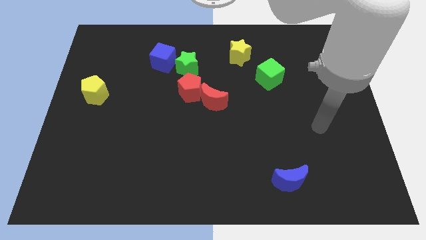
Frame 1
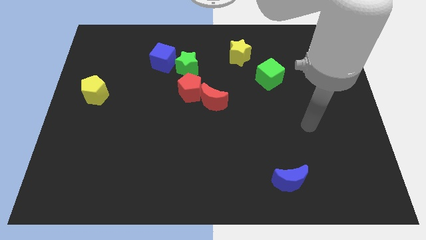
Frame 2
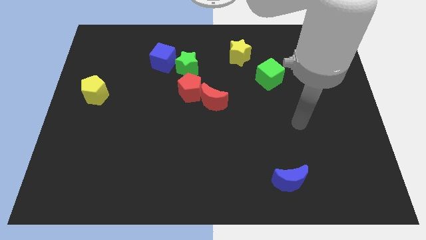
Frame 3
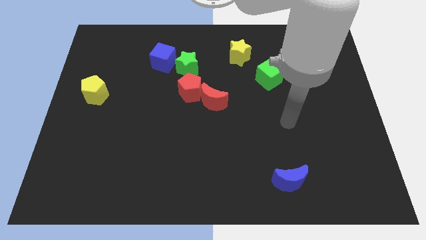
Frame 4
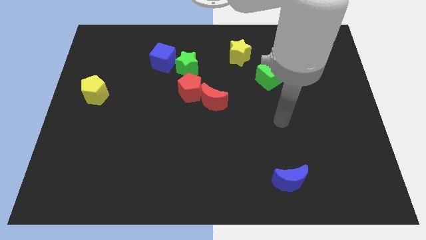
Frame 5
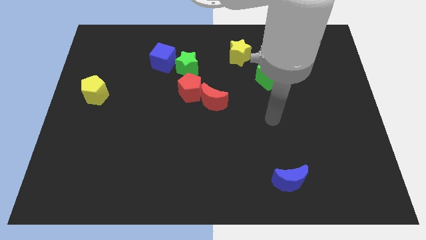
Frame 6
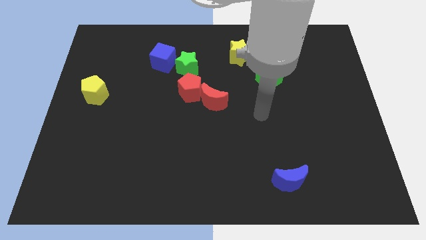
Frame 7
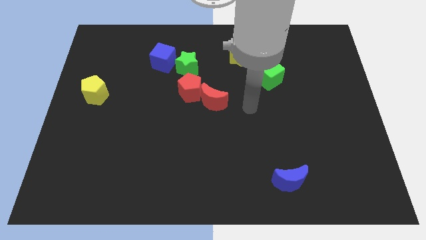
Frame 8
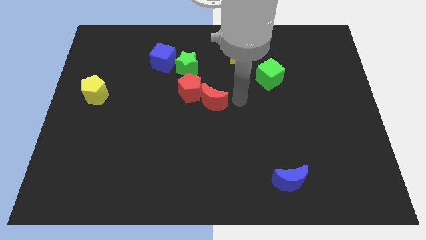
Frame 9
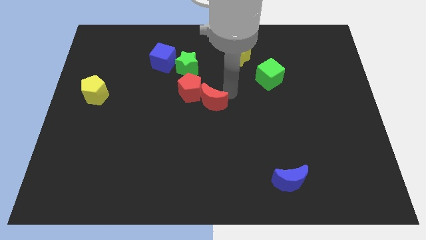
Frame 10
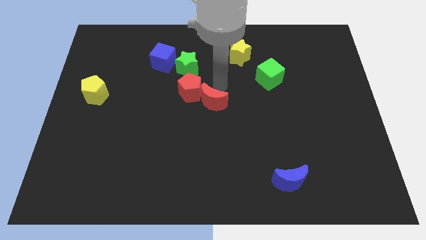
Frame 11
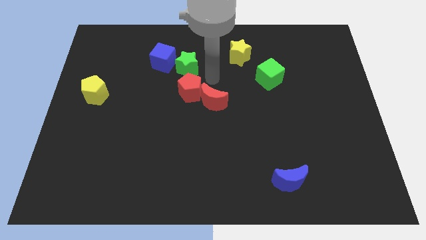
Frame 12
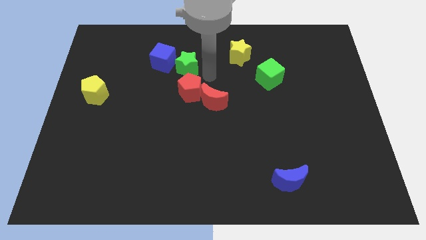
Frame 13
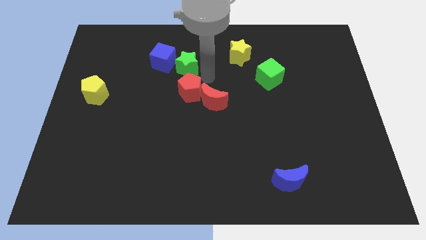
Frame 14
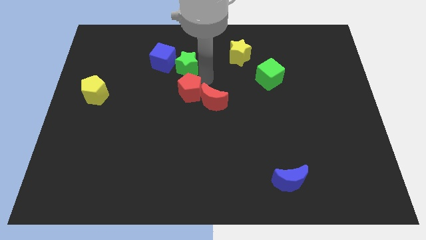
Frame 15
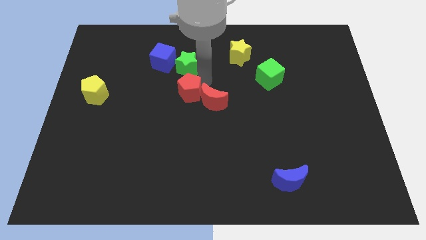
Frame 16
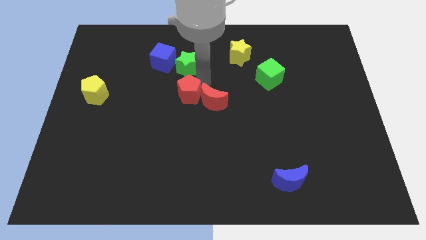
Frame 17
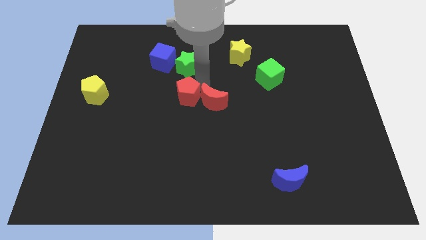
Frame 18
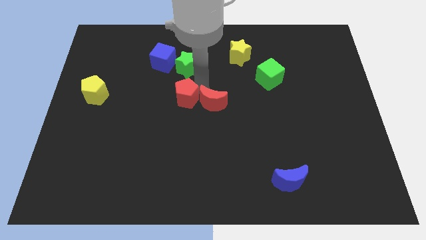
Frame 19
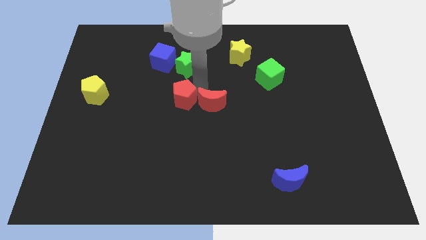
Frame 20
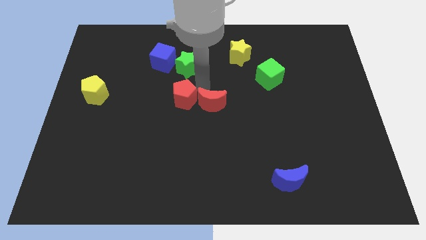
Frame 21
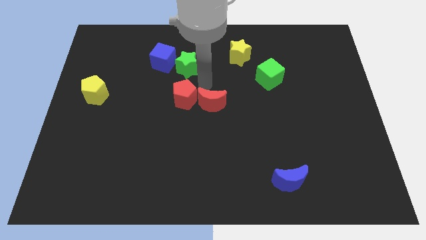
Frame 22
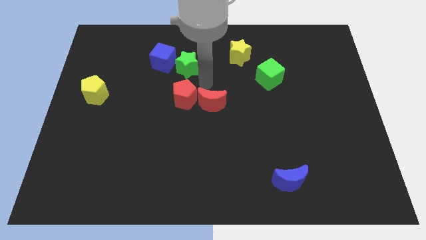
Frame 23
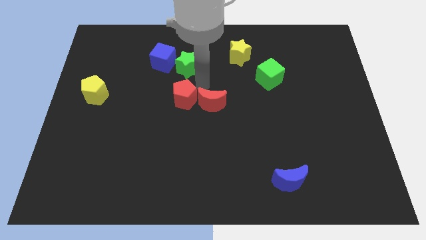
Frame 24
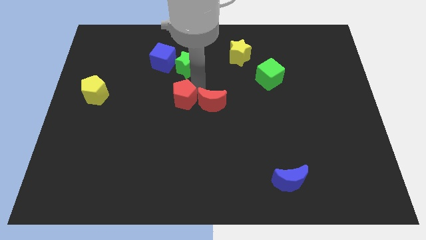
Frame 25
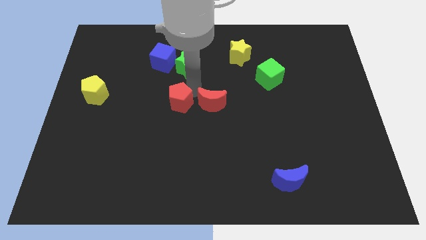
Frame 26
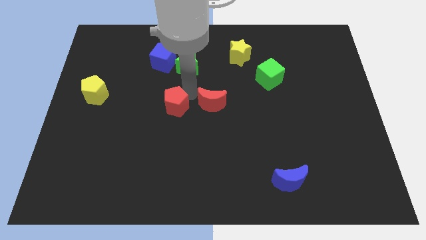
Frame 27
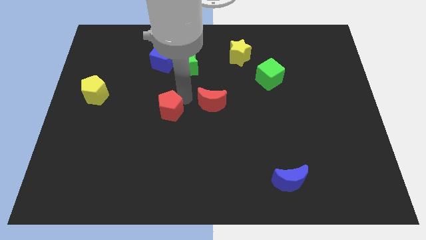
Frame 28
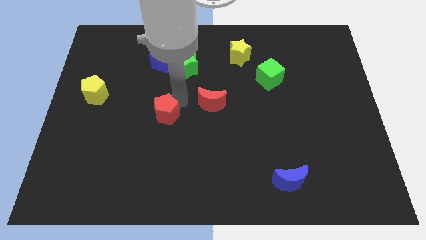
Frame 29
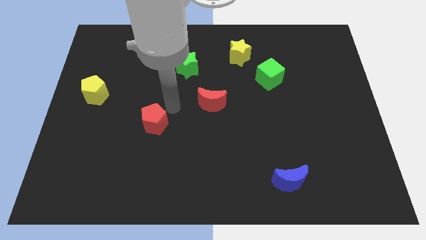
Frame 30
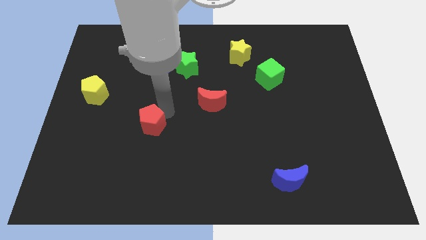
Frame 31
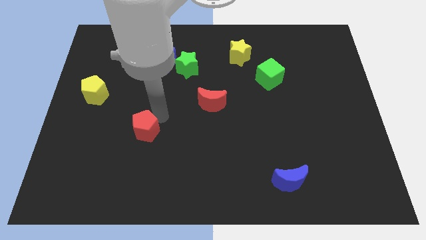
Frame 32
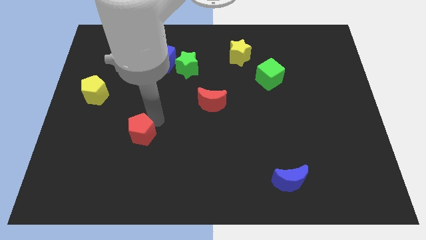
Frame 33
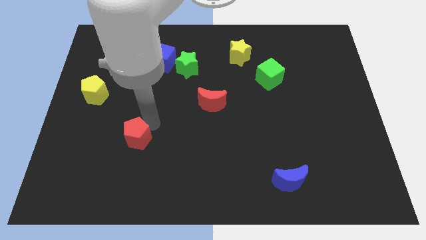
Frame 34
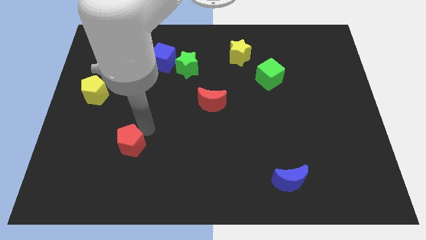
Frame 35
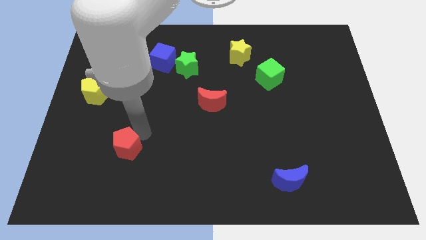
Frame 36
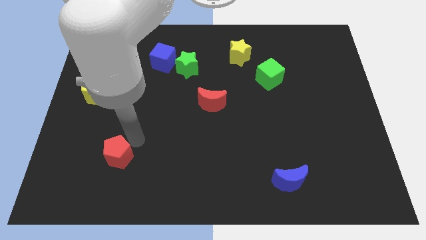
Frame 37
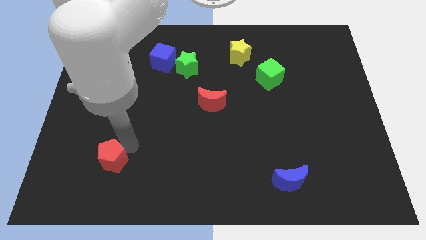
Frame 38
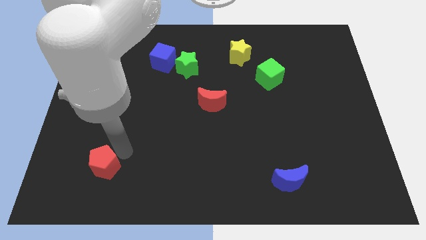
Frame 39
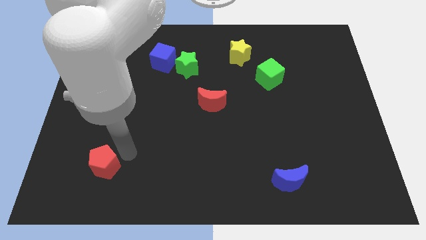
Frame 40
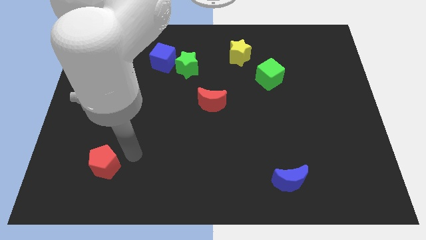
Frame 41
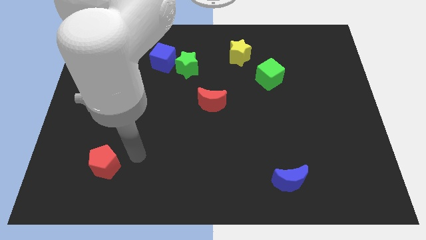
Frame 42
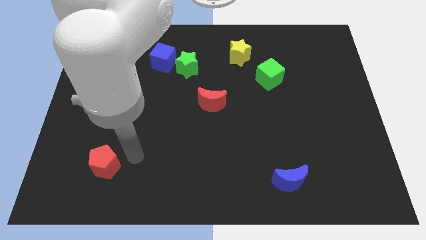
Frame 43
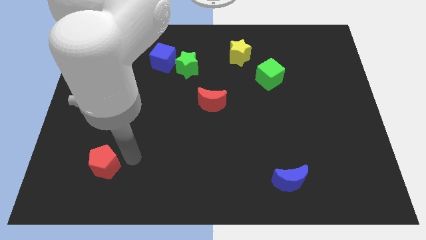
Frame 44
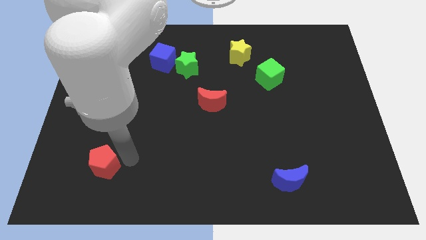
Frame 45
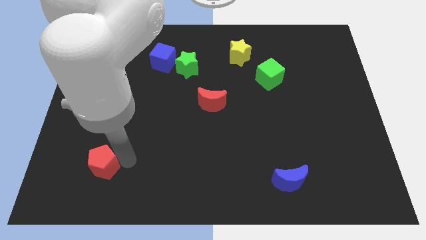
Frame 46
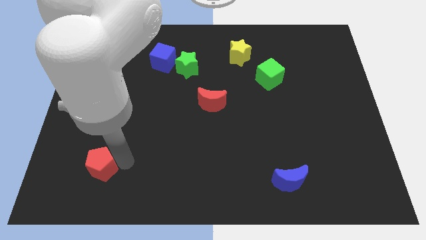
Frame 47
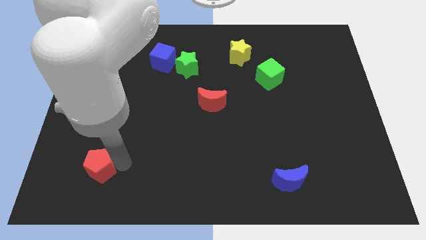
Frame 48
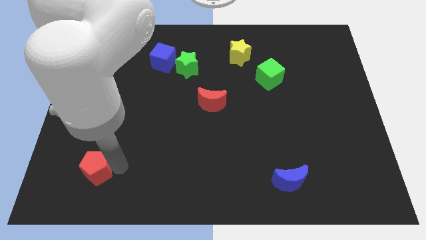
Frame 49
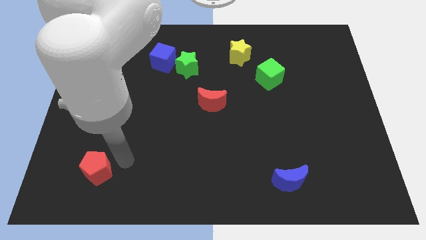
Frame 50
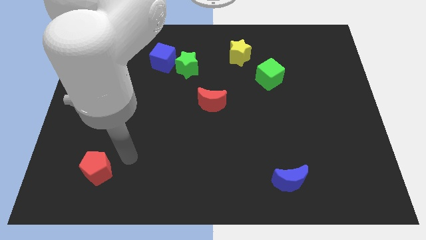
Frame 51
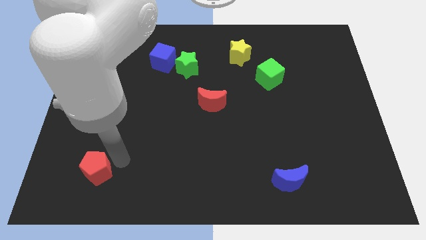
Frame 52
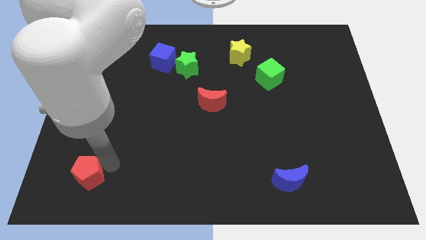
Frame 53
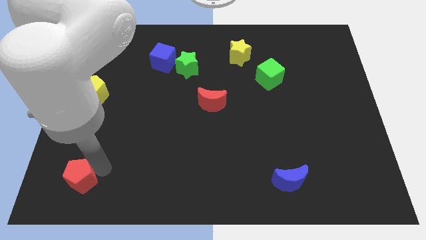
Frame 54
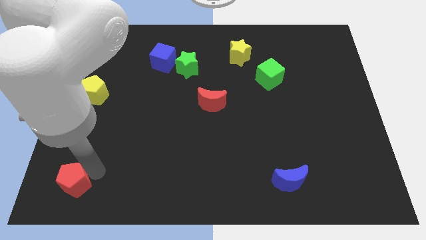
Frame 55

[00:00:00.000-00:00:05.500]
move the red pentagon to the bottom left corner
